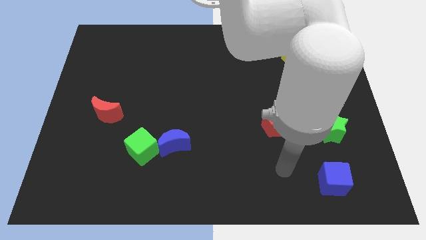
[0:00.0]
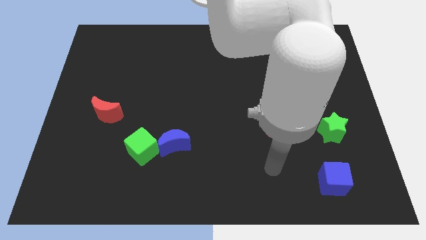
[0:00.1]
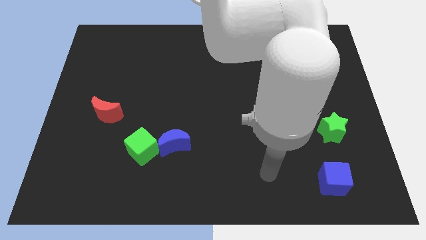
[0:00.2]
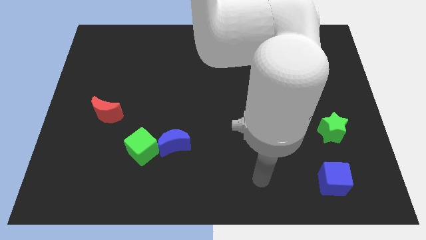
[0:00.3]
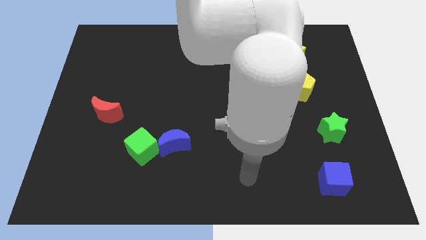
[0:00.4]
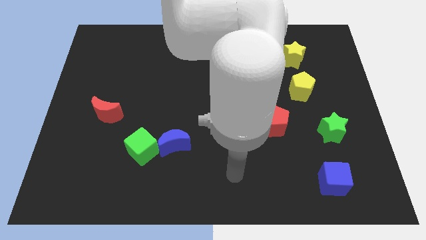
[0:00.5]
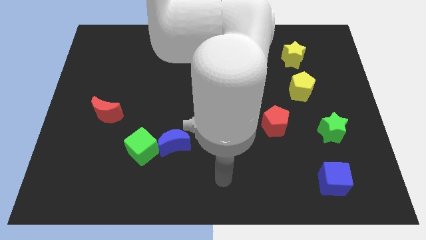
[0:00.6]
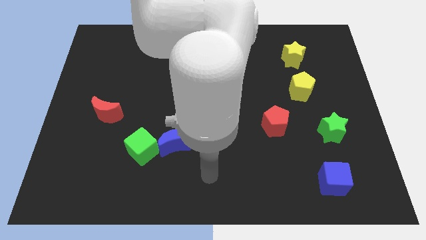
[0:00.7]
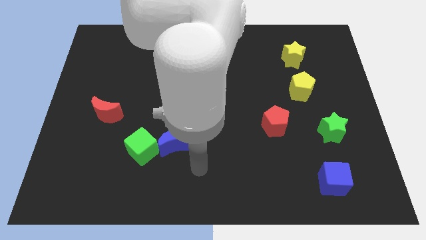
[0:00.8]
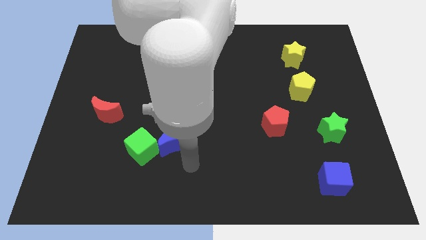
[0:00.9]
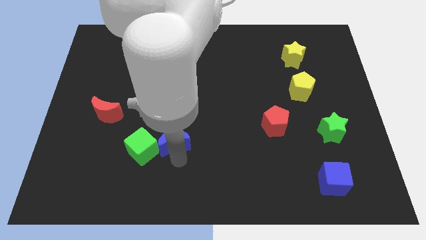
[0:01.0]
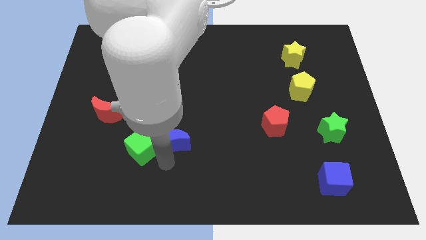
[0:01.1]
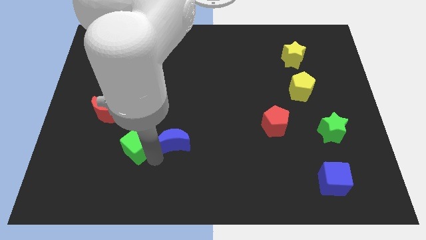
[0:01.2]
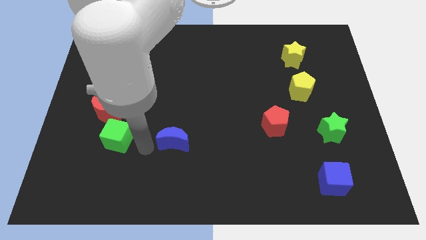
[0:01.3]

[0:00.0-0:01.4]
separate the blue moon from the green cube

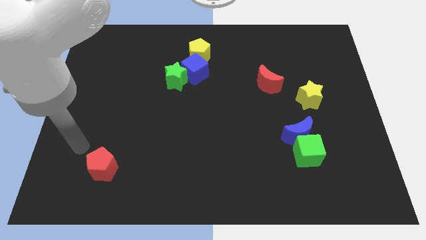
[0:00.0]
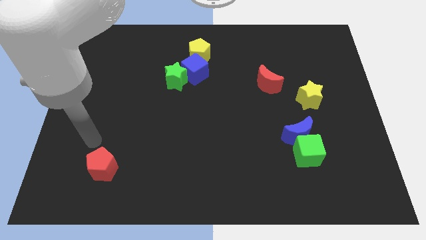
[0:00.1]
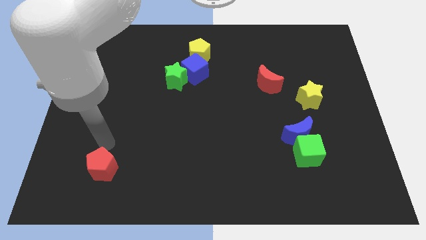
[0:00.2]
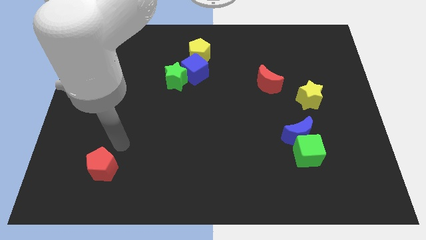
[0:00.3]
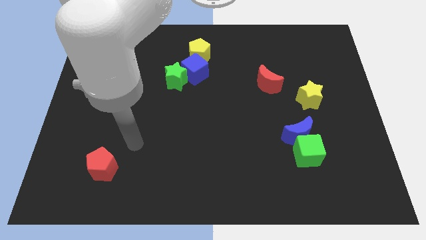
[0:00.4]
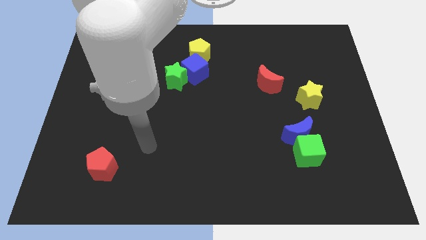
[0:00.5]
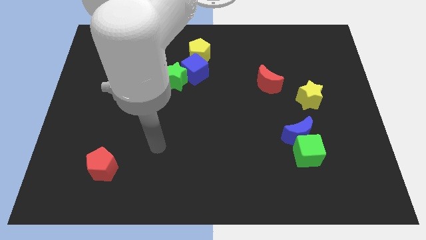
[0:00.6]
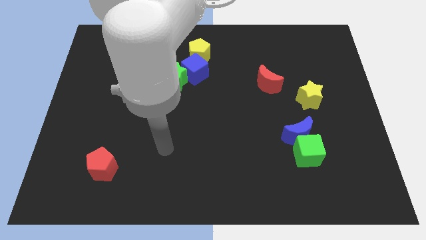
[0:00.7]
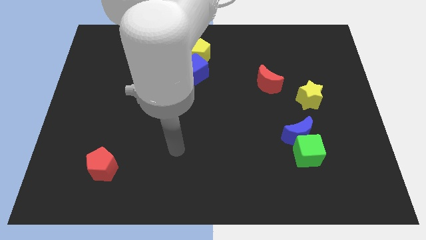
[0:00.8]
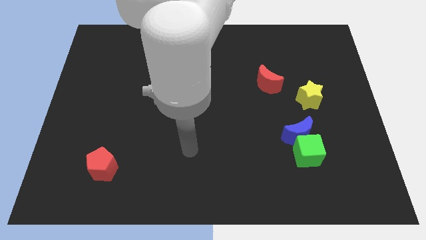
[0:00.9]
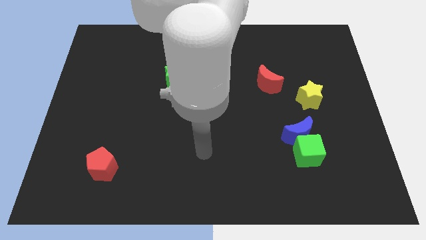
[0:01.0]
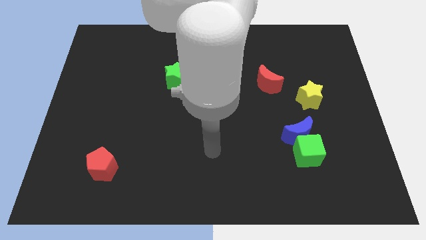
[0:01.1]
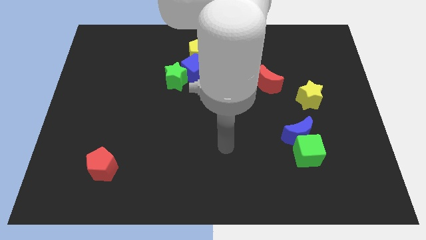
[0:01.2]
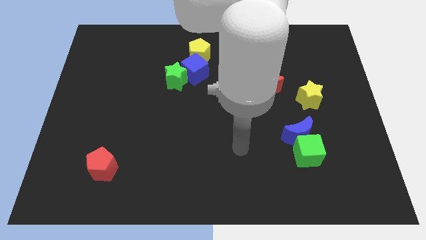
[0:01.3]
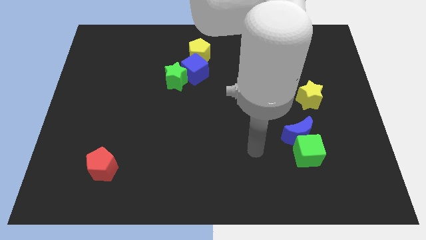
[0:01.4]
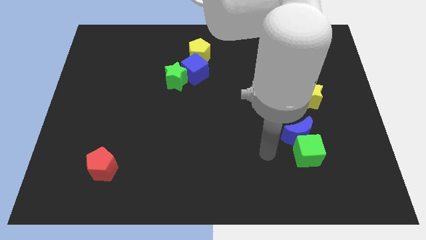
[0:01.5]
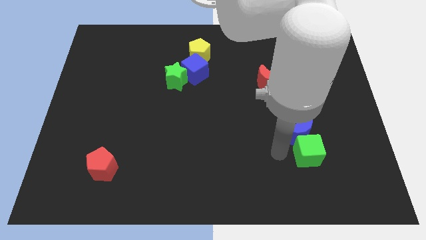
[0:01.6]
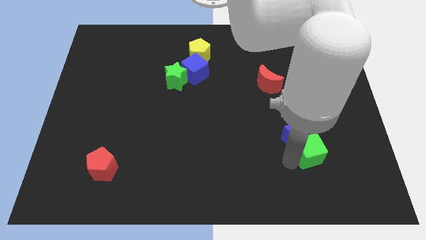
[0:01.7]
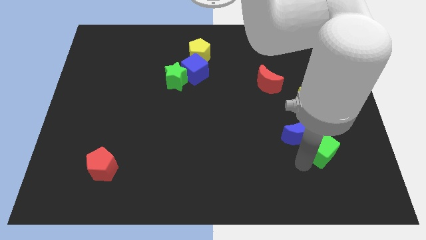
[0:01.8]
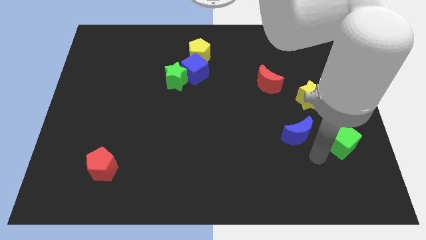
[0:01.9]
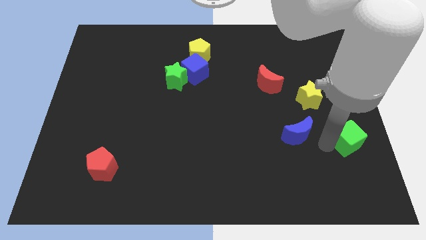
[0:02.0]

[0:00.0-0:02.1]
pull the blue moon apart from the green cube

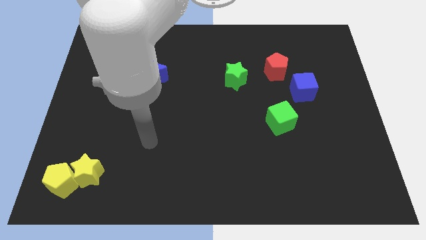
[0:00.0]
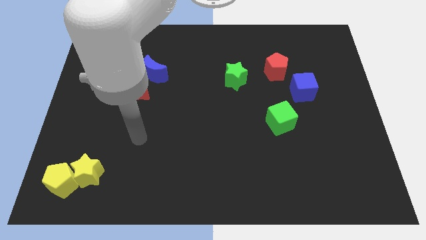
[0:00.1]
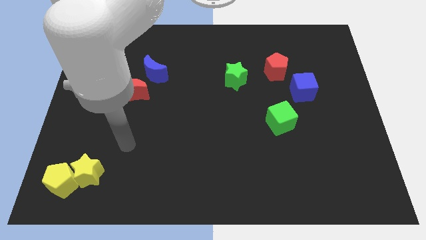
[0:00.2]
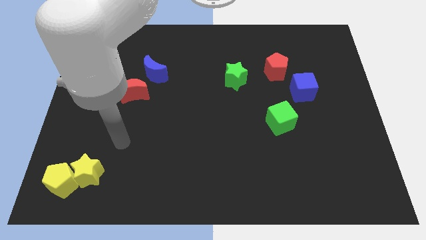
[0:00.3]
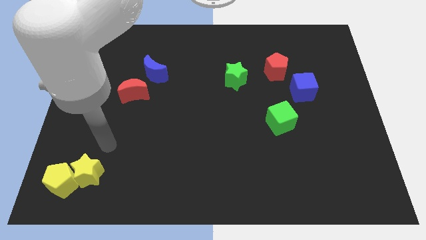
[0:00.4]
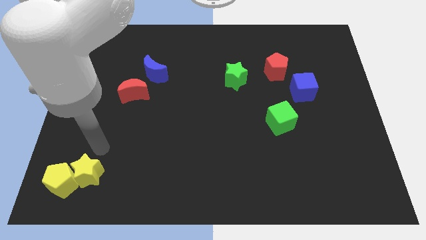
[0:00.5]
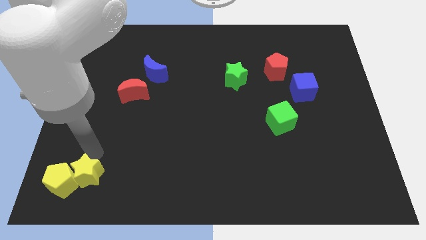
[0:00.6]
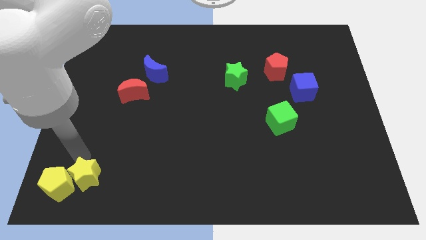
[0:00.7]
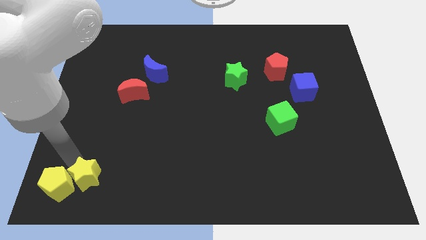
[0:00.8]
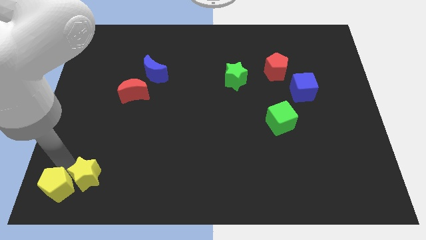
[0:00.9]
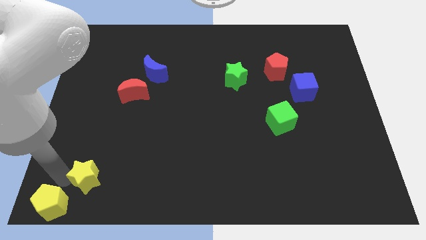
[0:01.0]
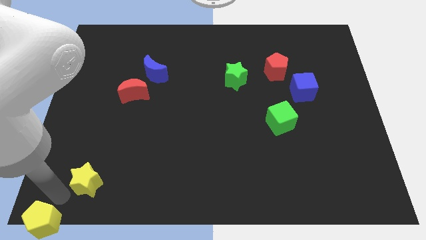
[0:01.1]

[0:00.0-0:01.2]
move the yellow star away from the yellow pentagon

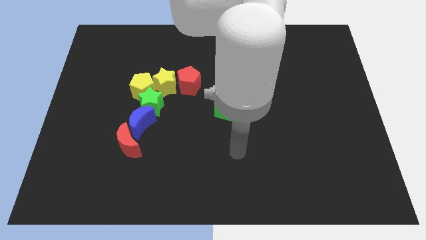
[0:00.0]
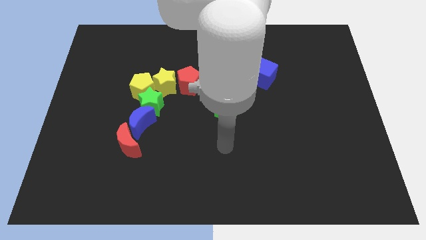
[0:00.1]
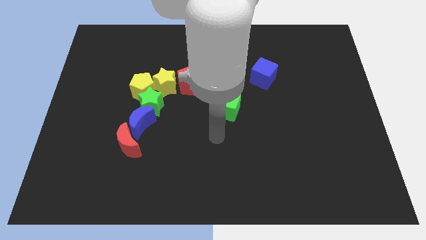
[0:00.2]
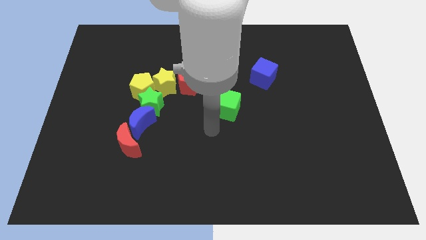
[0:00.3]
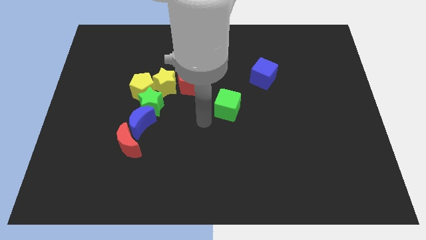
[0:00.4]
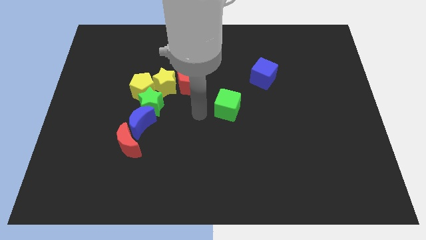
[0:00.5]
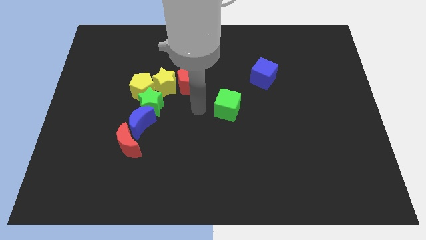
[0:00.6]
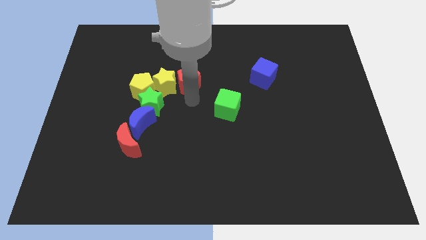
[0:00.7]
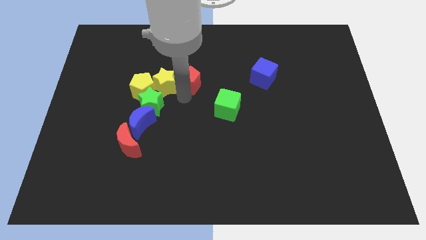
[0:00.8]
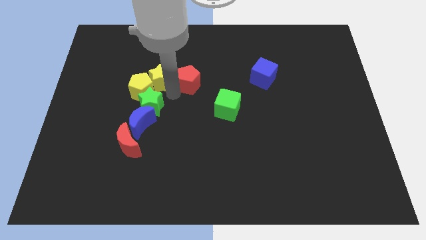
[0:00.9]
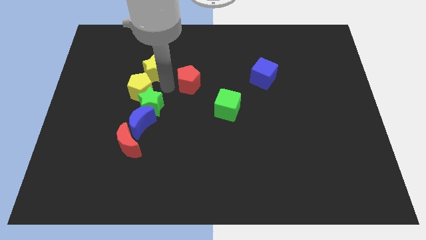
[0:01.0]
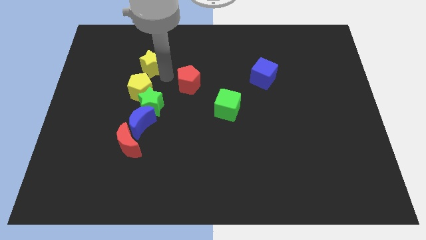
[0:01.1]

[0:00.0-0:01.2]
separate the red pentagon from the yellow star

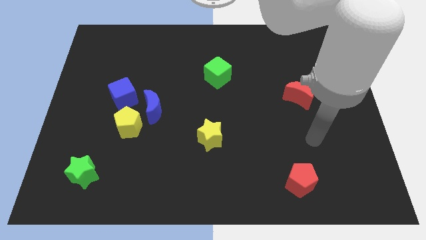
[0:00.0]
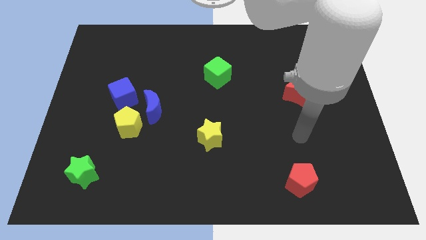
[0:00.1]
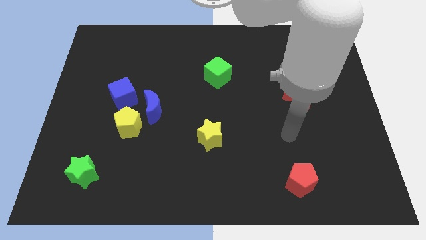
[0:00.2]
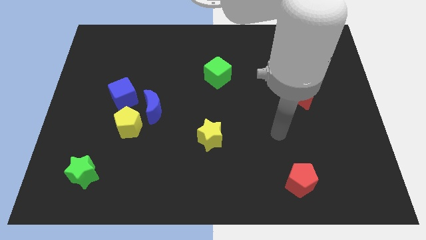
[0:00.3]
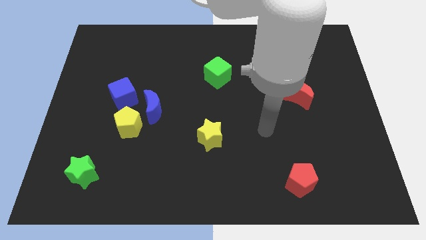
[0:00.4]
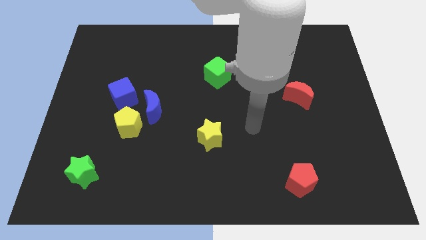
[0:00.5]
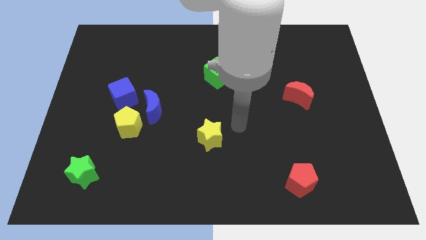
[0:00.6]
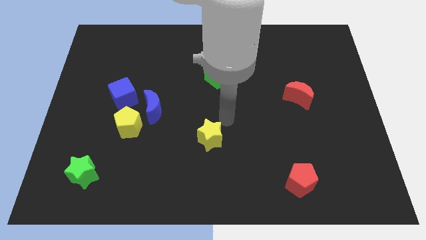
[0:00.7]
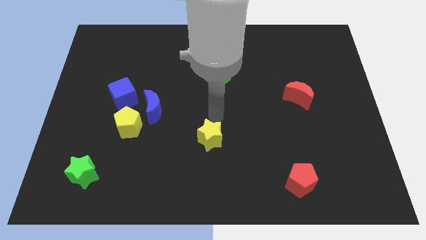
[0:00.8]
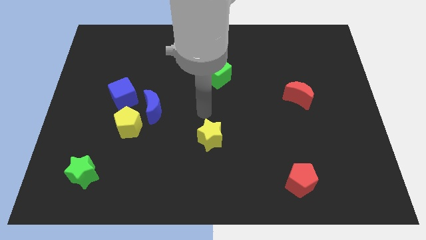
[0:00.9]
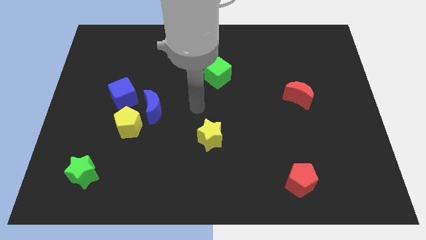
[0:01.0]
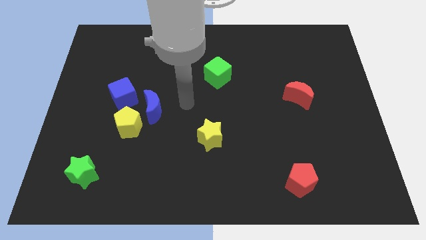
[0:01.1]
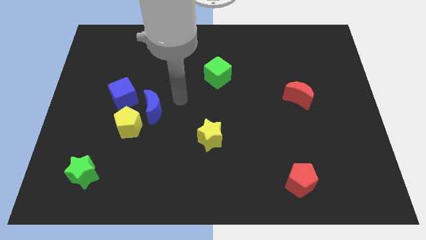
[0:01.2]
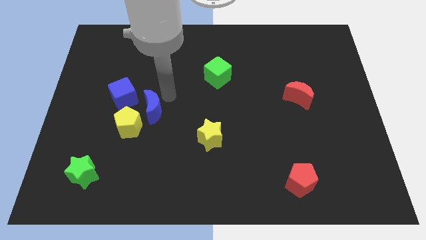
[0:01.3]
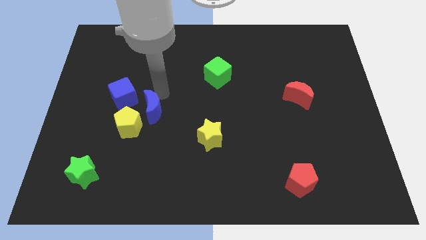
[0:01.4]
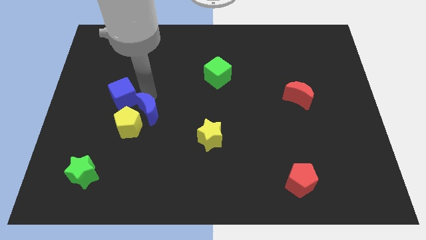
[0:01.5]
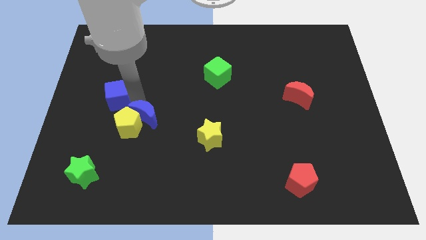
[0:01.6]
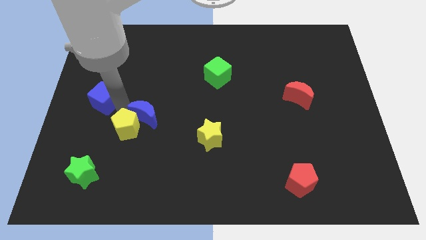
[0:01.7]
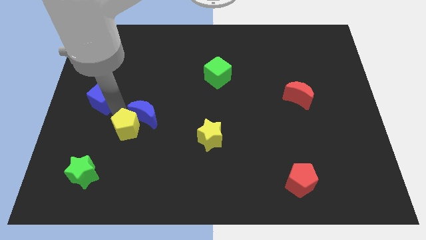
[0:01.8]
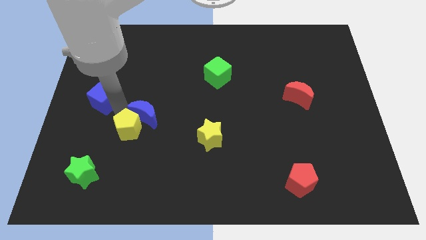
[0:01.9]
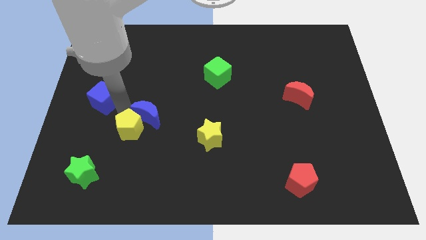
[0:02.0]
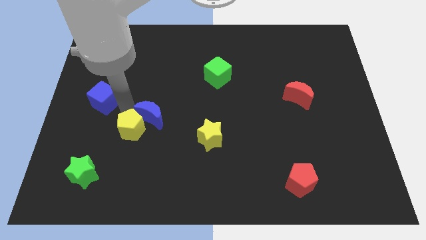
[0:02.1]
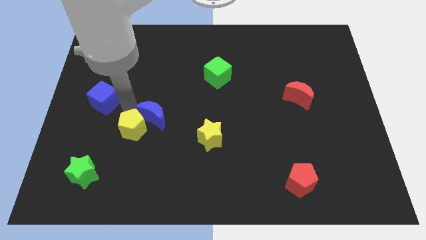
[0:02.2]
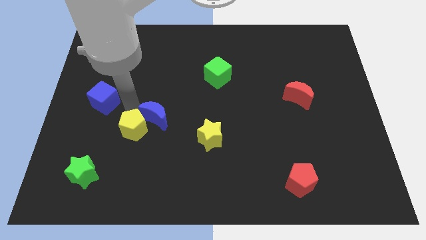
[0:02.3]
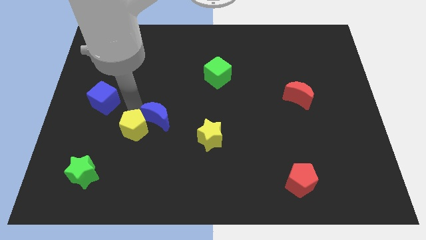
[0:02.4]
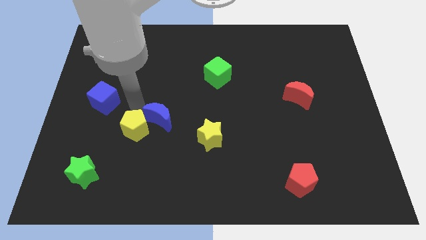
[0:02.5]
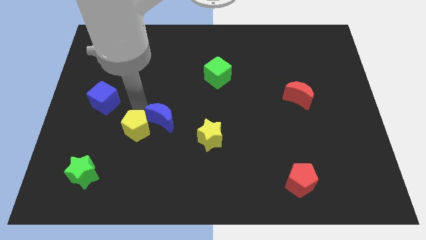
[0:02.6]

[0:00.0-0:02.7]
separate the blue moon from the yellow pentagon and blue cube

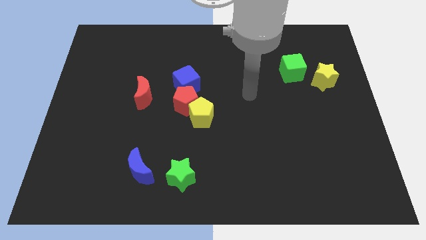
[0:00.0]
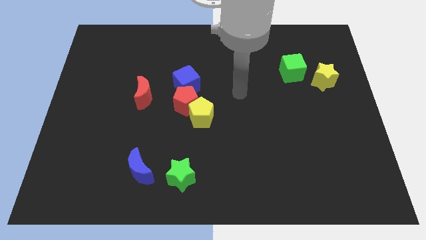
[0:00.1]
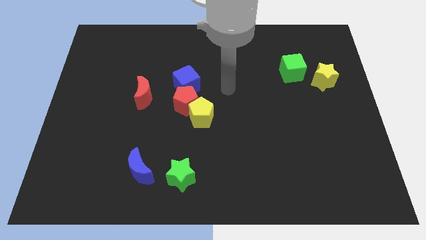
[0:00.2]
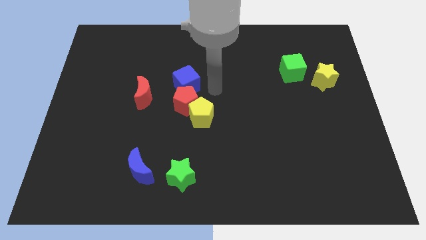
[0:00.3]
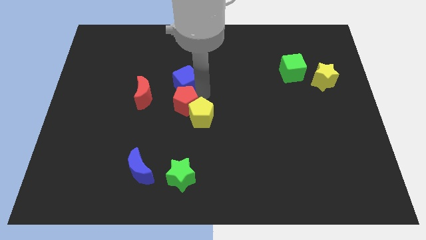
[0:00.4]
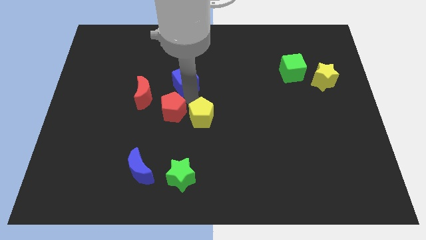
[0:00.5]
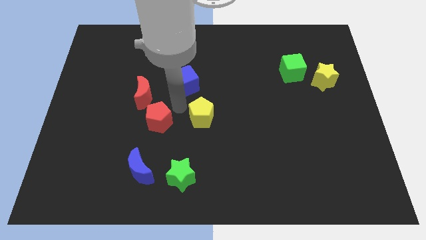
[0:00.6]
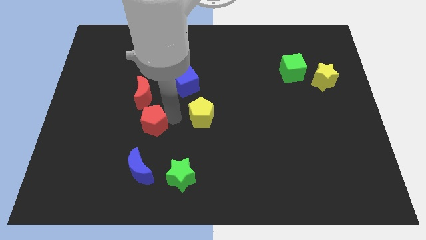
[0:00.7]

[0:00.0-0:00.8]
separate the yellow pentagon from the red pentagon
